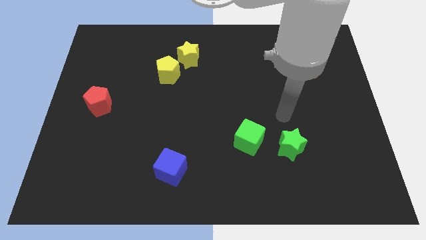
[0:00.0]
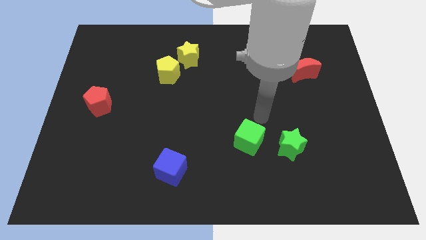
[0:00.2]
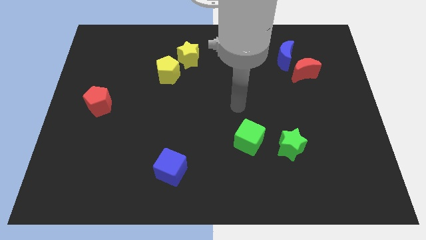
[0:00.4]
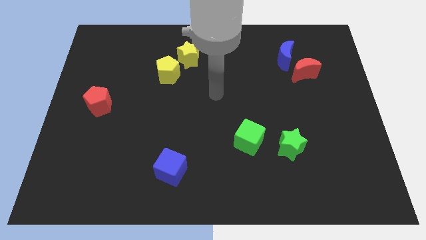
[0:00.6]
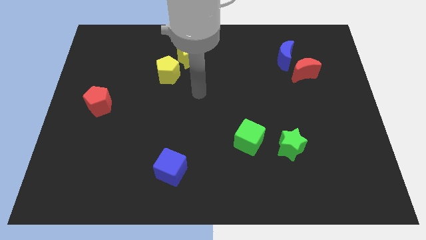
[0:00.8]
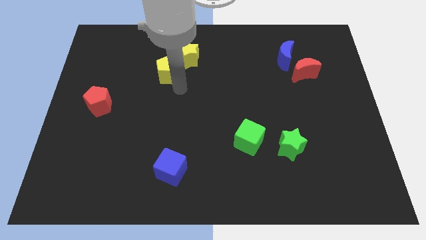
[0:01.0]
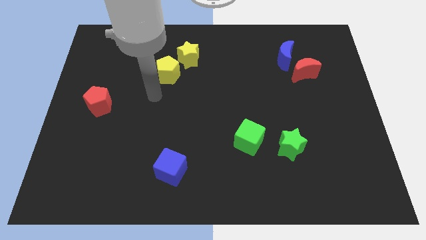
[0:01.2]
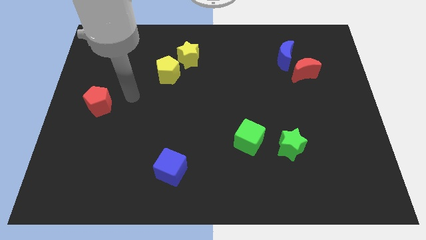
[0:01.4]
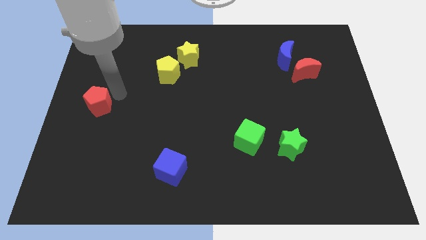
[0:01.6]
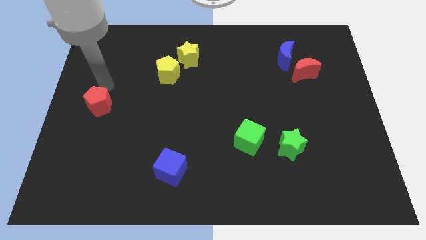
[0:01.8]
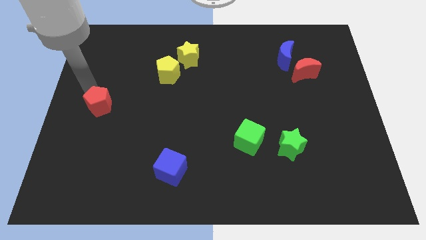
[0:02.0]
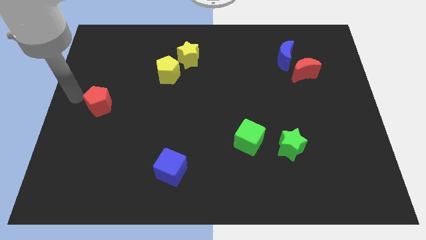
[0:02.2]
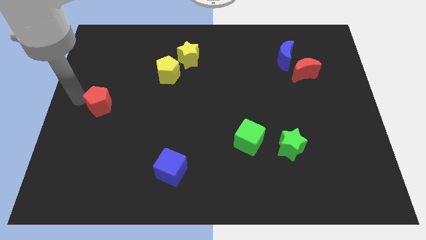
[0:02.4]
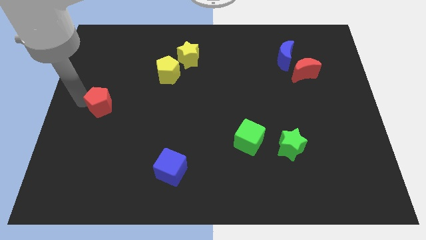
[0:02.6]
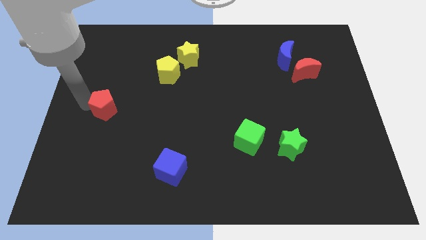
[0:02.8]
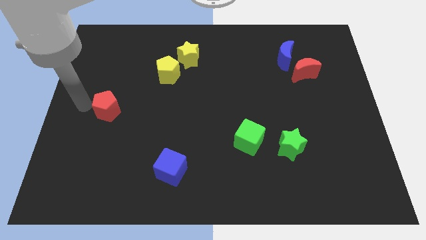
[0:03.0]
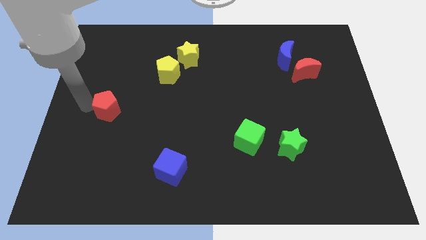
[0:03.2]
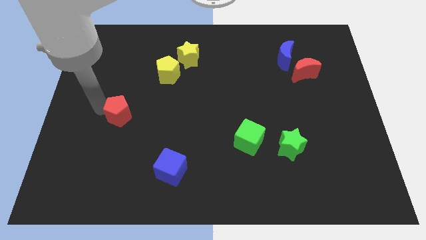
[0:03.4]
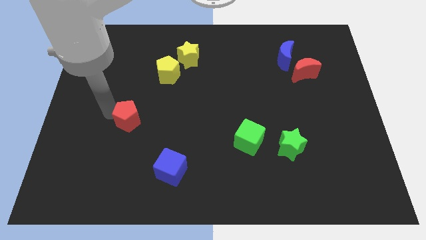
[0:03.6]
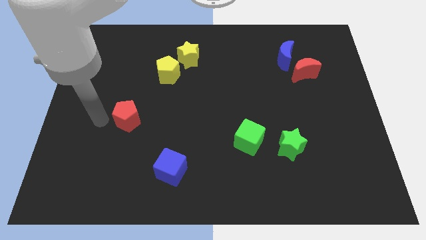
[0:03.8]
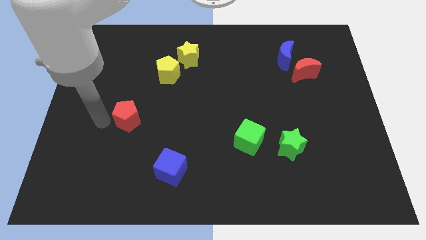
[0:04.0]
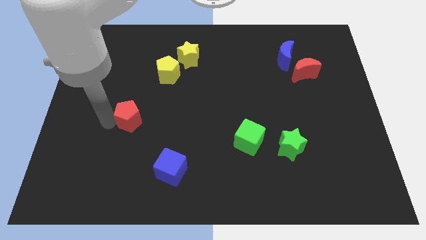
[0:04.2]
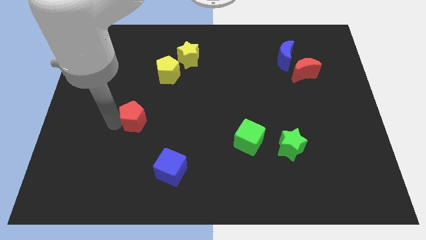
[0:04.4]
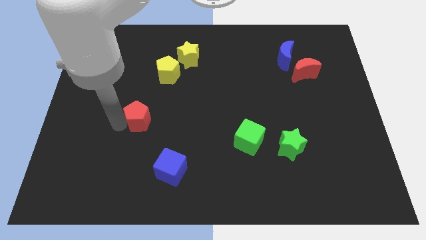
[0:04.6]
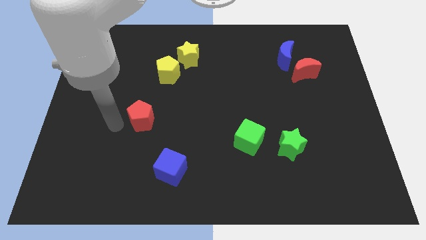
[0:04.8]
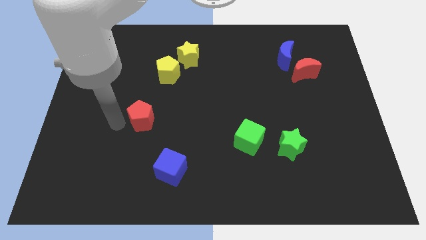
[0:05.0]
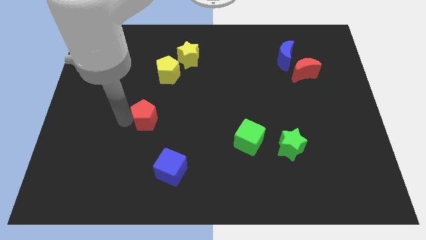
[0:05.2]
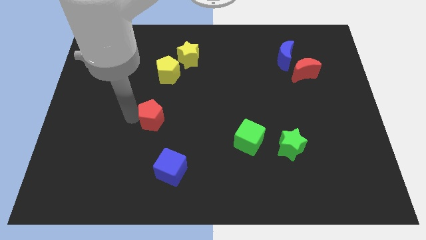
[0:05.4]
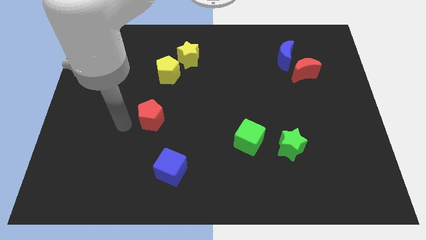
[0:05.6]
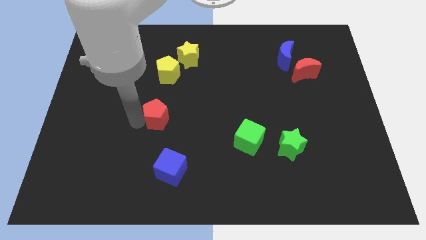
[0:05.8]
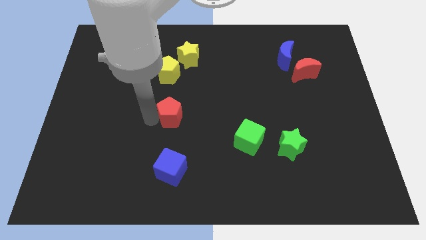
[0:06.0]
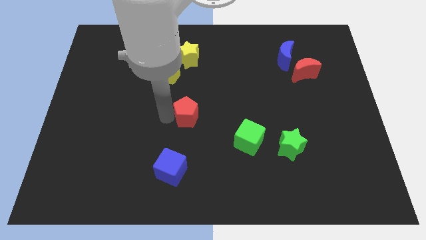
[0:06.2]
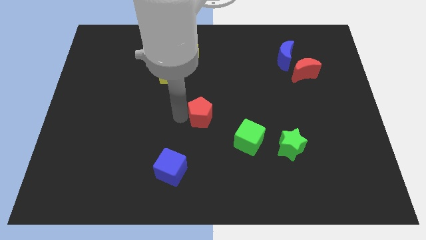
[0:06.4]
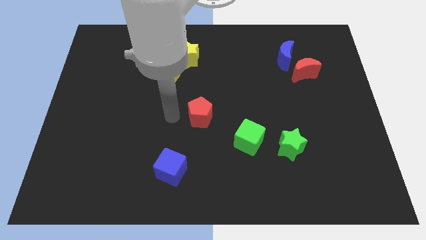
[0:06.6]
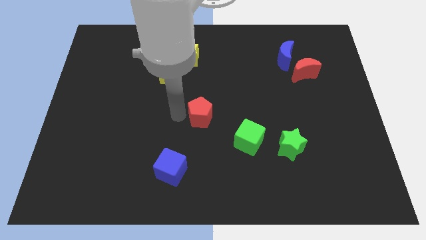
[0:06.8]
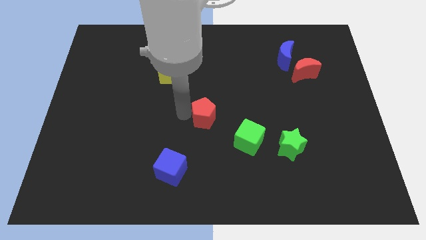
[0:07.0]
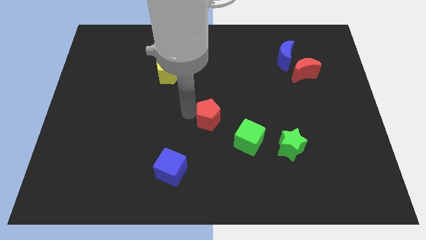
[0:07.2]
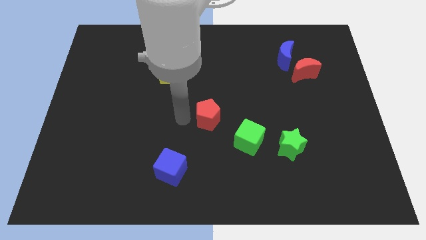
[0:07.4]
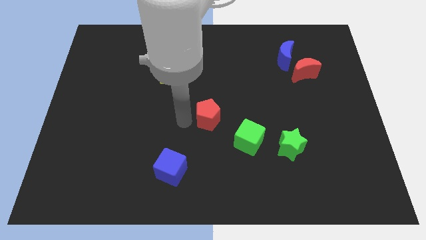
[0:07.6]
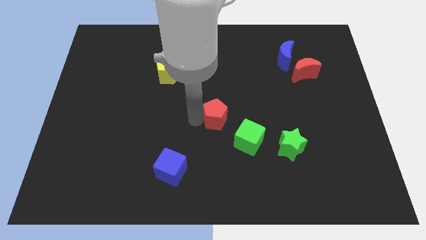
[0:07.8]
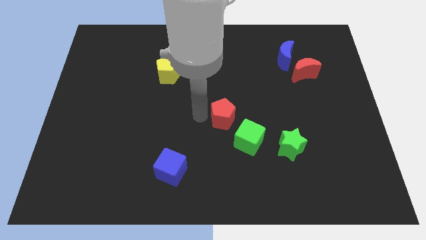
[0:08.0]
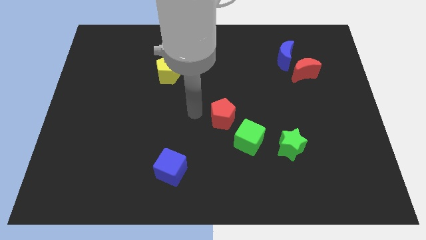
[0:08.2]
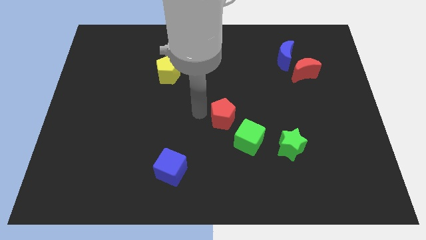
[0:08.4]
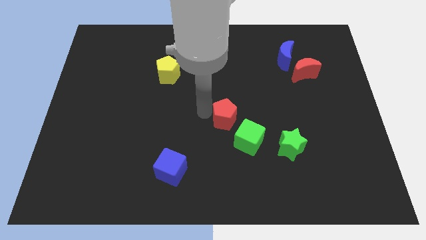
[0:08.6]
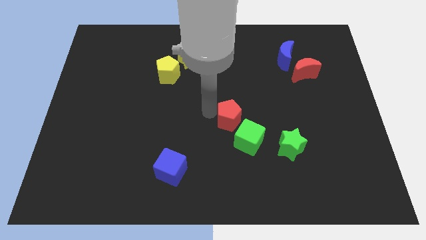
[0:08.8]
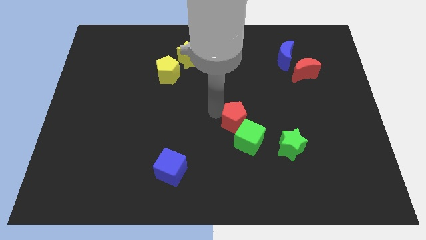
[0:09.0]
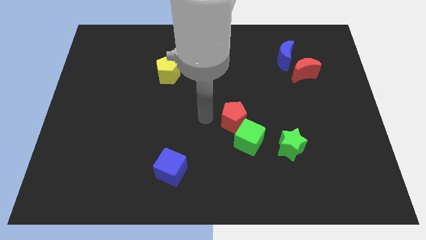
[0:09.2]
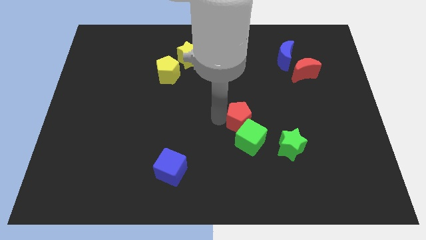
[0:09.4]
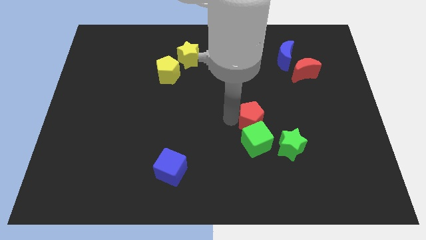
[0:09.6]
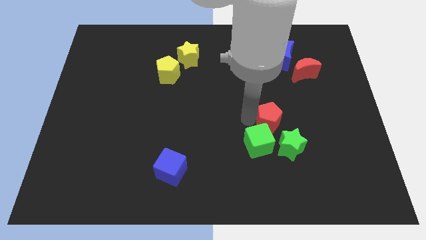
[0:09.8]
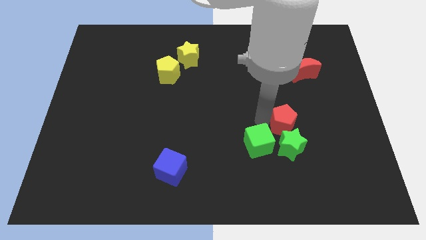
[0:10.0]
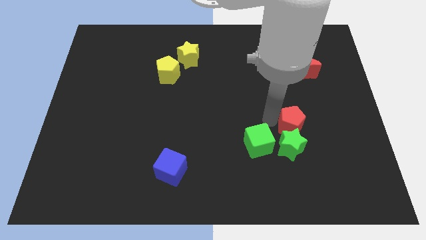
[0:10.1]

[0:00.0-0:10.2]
put the red pentagon right of the green cube

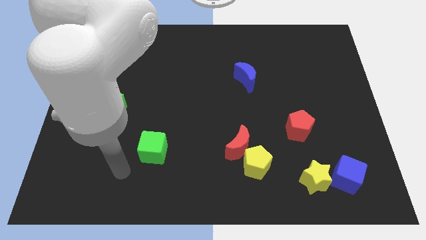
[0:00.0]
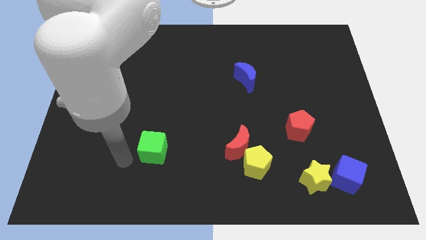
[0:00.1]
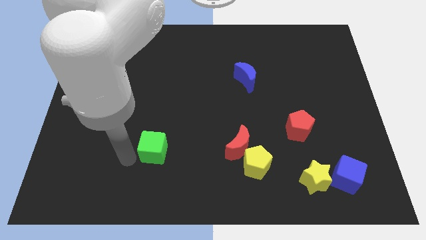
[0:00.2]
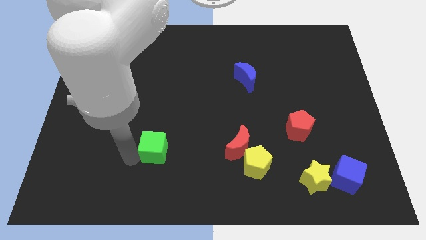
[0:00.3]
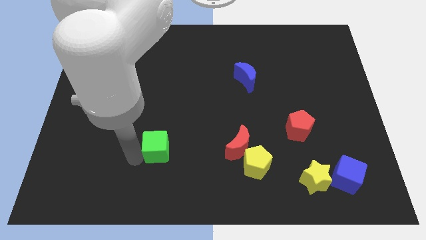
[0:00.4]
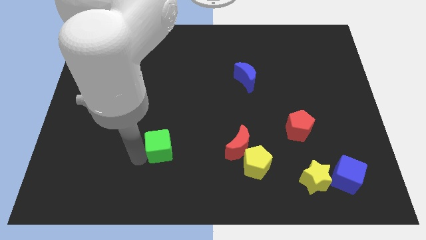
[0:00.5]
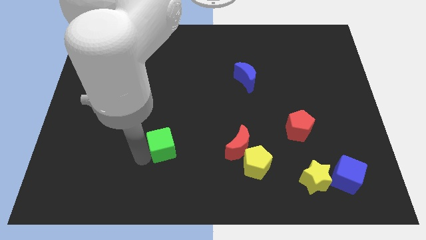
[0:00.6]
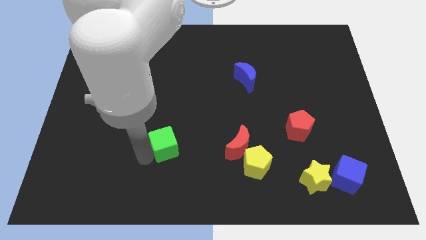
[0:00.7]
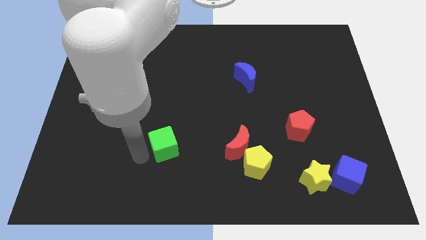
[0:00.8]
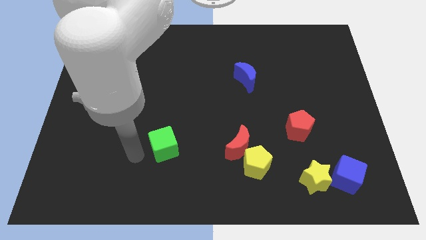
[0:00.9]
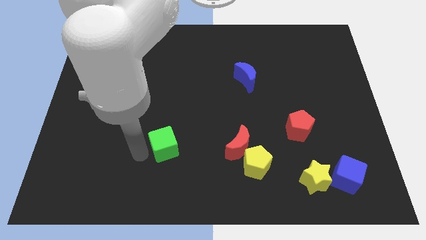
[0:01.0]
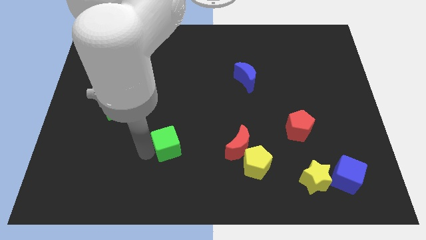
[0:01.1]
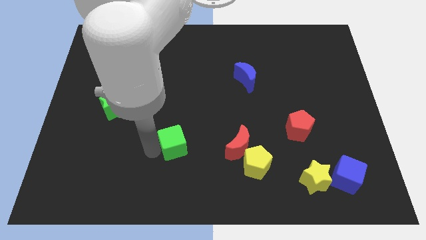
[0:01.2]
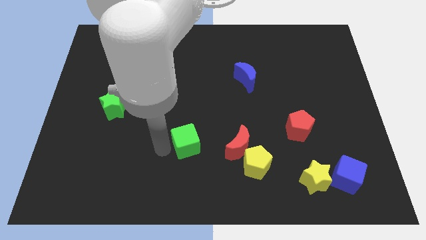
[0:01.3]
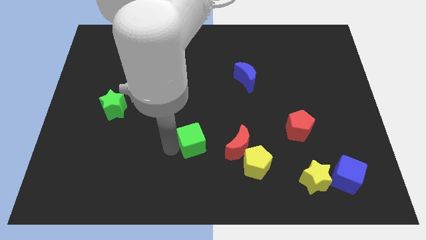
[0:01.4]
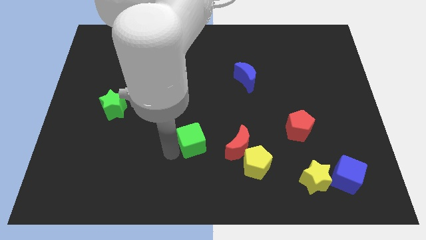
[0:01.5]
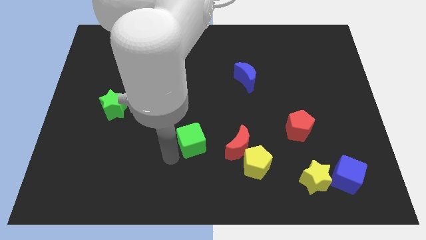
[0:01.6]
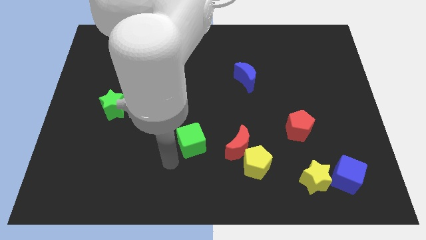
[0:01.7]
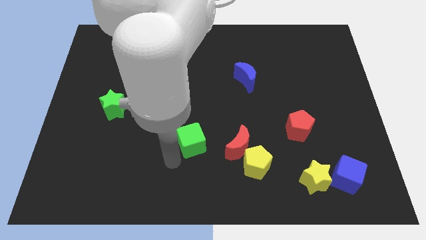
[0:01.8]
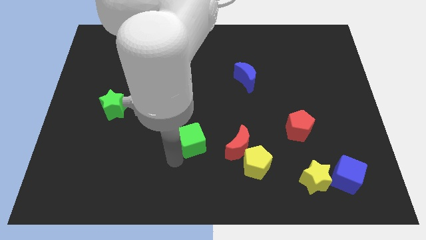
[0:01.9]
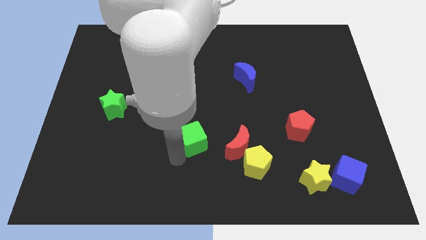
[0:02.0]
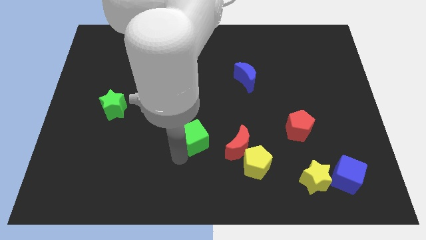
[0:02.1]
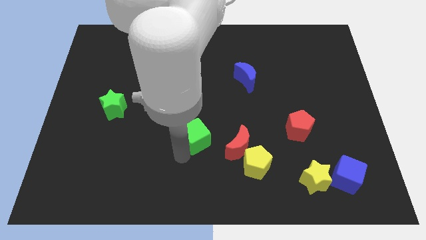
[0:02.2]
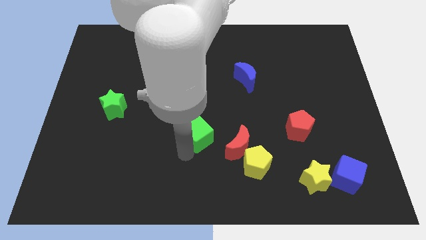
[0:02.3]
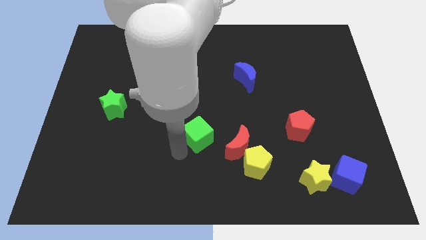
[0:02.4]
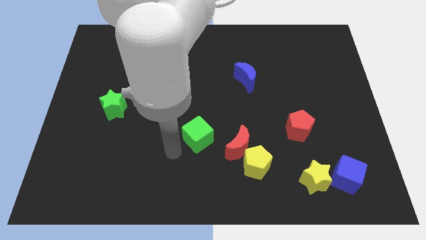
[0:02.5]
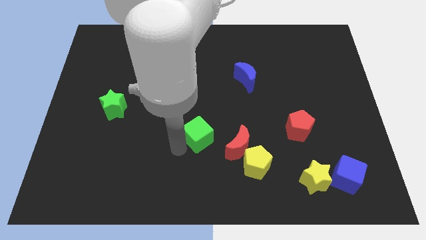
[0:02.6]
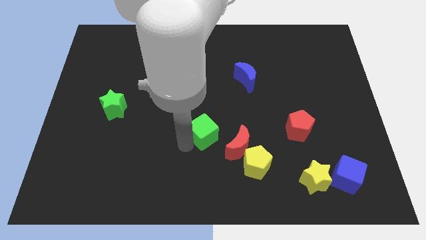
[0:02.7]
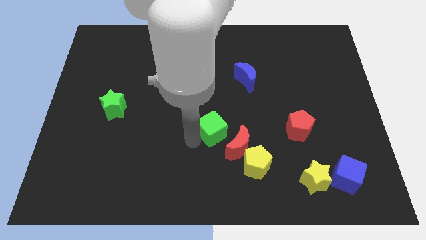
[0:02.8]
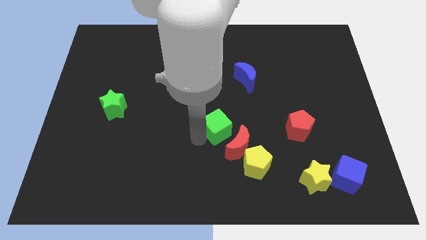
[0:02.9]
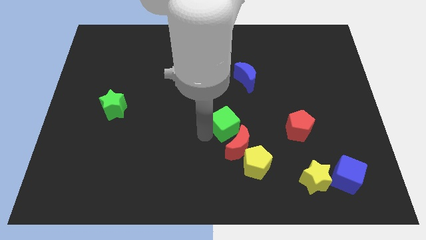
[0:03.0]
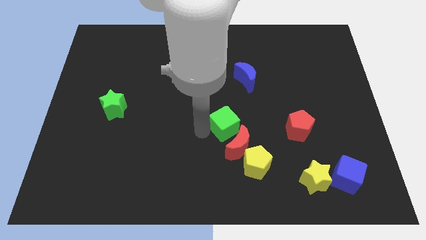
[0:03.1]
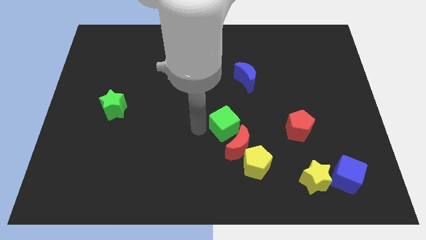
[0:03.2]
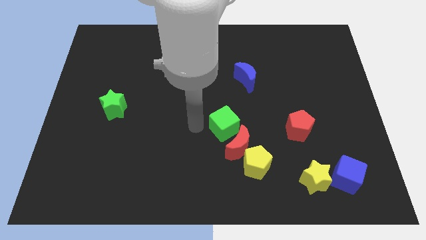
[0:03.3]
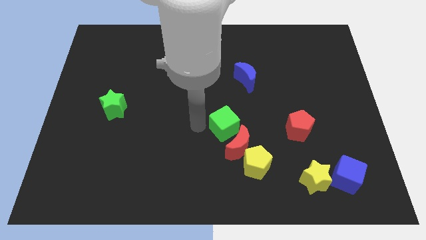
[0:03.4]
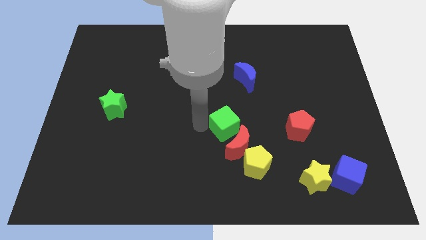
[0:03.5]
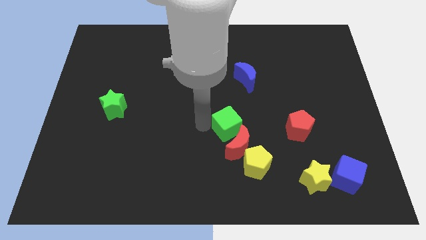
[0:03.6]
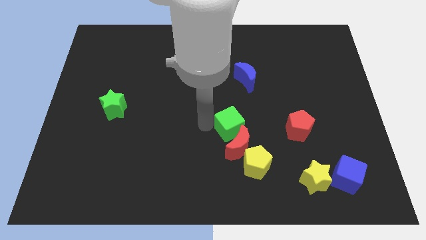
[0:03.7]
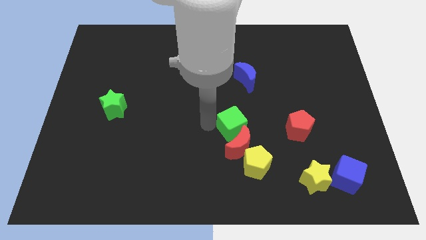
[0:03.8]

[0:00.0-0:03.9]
put the green cube to the top right side of the red moon
